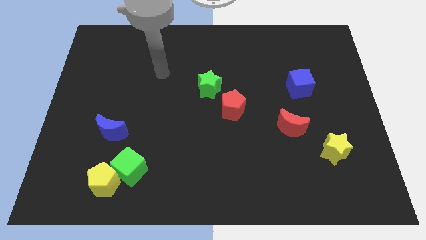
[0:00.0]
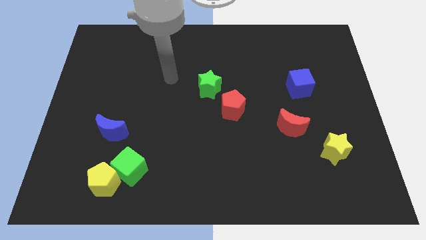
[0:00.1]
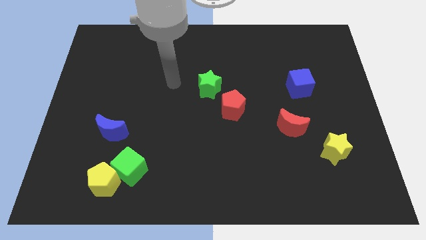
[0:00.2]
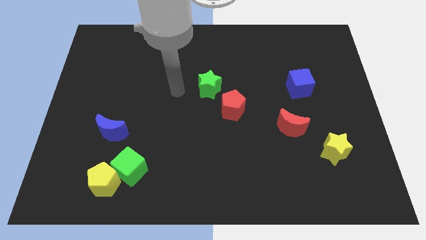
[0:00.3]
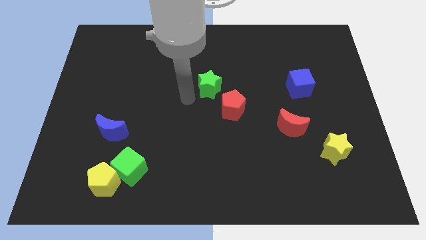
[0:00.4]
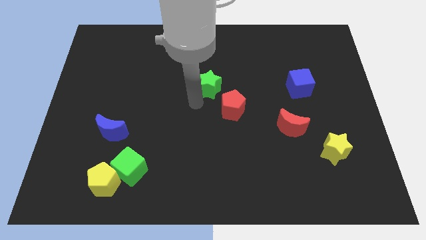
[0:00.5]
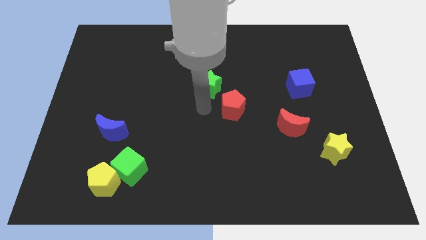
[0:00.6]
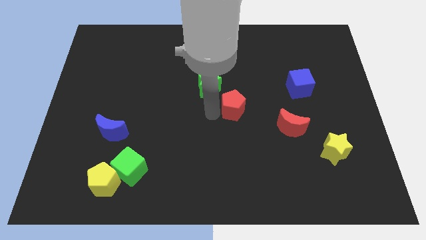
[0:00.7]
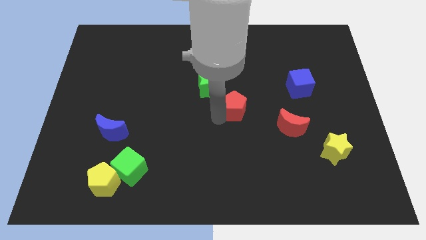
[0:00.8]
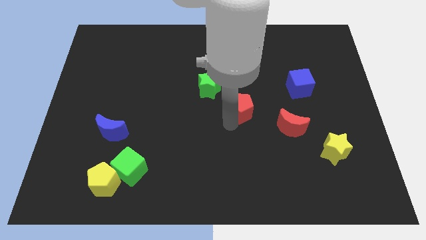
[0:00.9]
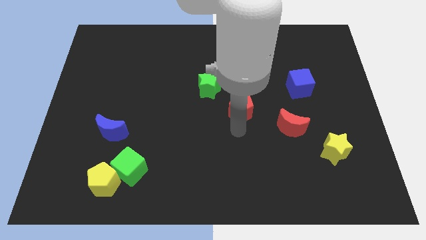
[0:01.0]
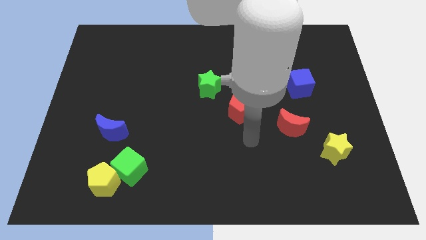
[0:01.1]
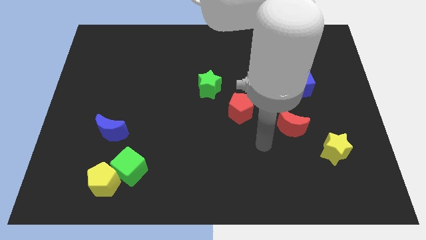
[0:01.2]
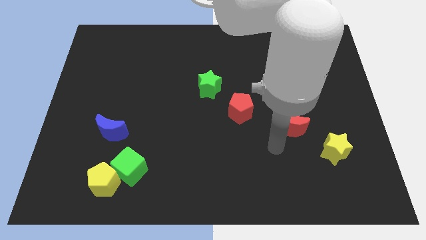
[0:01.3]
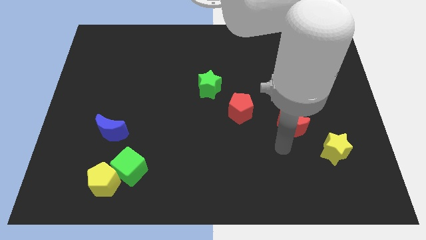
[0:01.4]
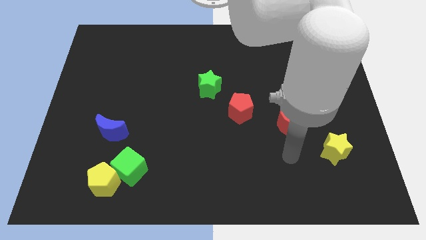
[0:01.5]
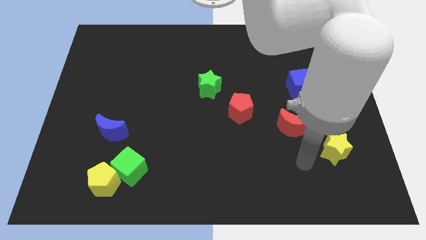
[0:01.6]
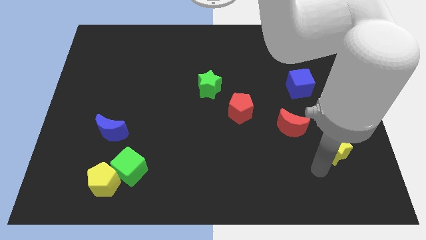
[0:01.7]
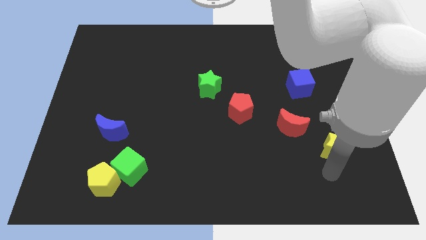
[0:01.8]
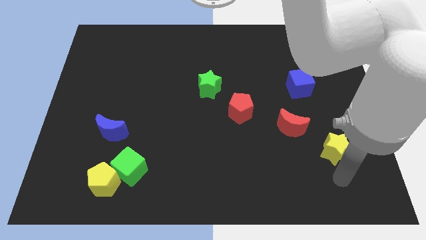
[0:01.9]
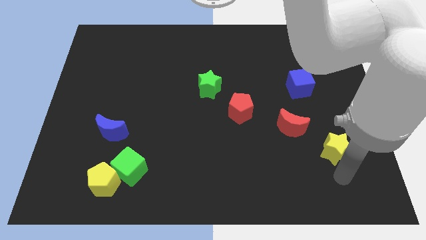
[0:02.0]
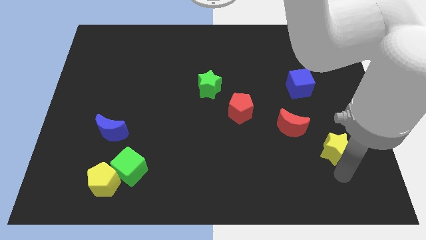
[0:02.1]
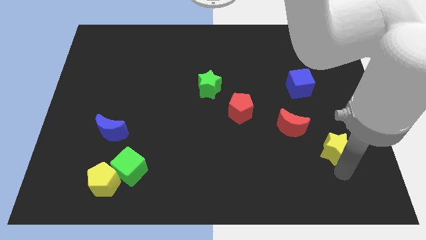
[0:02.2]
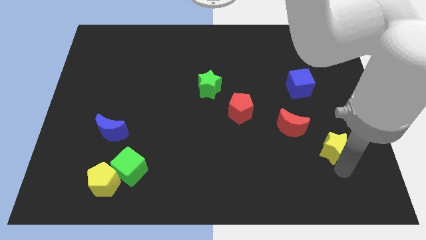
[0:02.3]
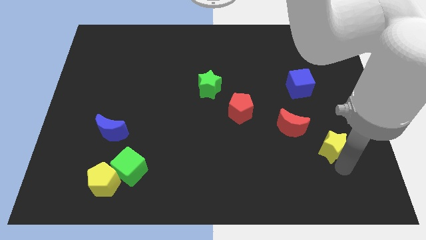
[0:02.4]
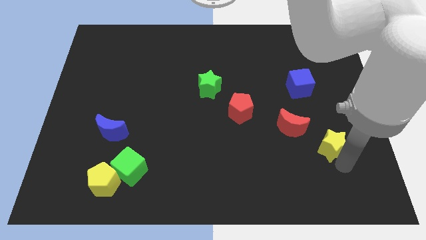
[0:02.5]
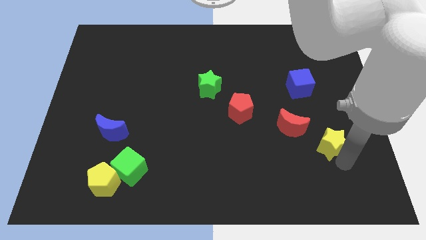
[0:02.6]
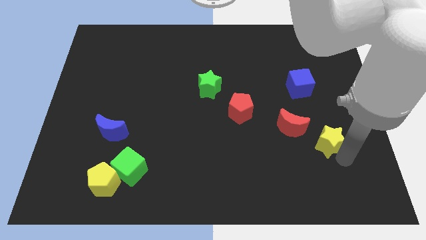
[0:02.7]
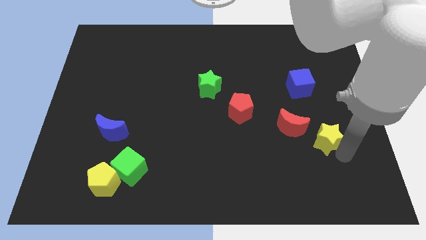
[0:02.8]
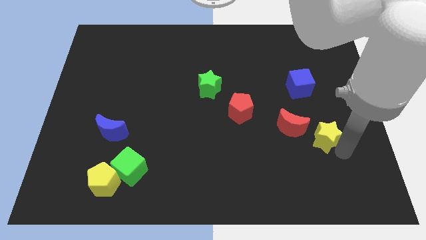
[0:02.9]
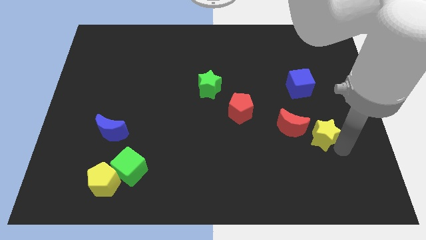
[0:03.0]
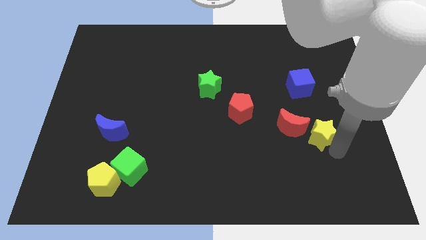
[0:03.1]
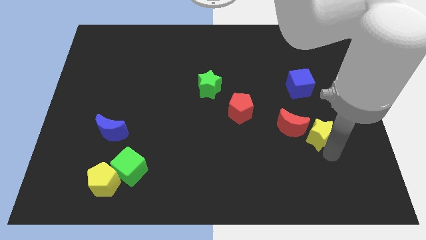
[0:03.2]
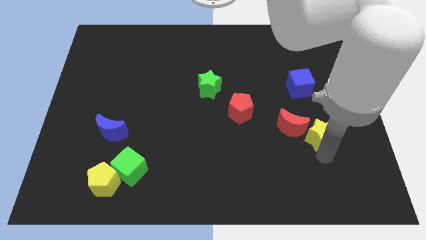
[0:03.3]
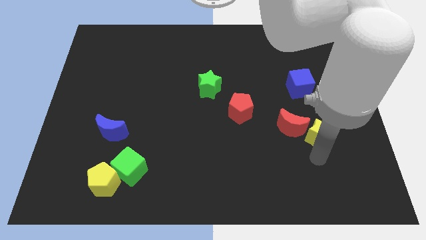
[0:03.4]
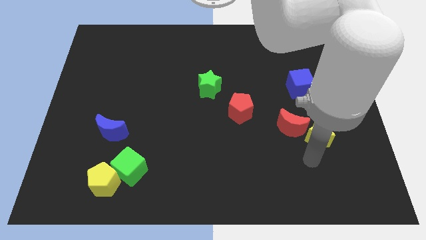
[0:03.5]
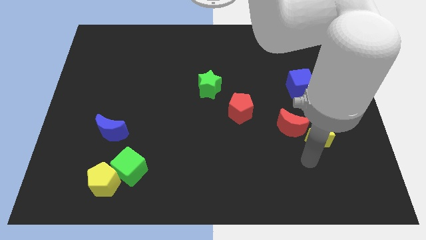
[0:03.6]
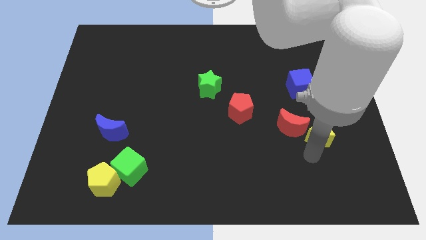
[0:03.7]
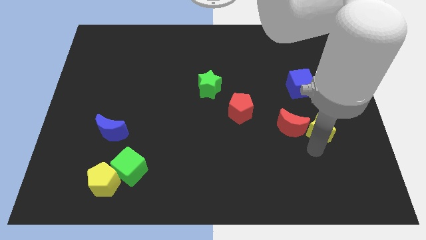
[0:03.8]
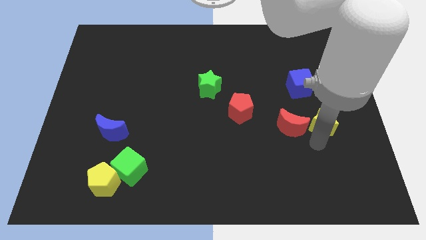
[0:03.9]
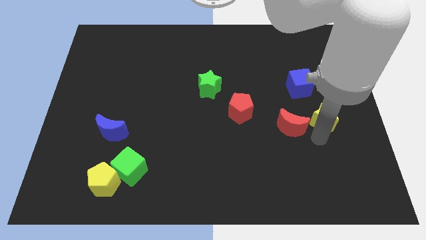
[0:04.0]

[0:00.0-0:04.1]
slide the yellow star a bit up

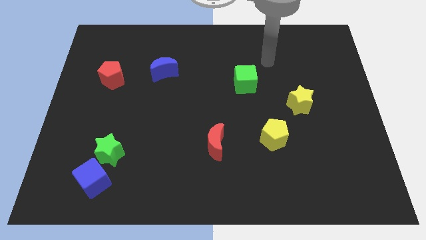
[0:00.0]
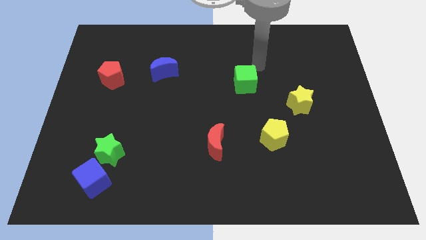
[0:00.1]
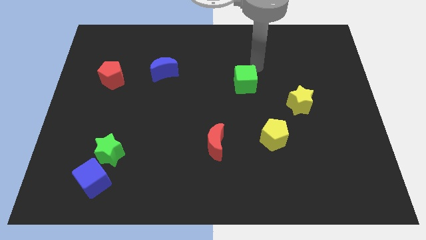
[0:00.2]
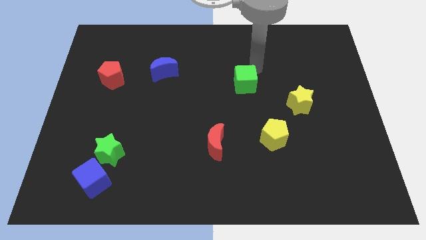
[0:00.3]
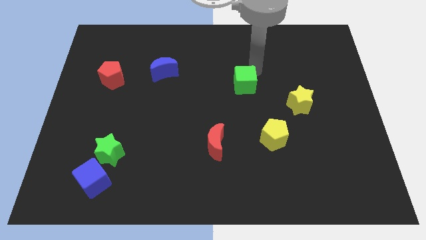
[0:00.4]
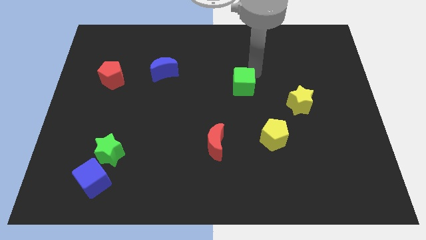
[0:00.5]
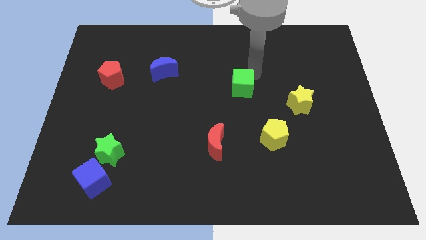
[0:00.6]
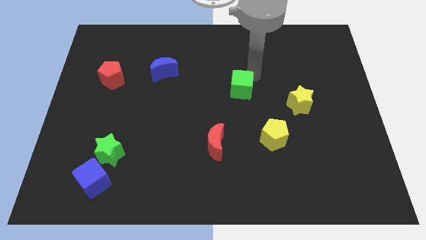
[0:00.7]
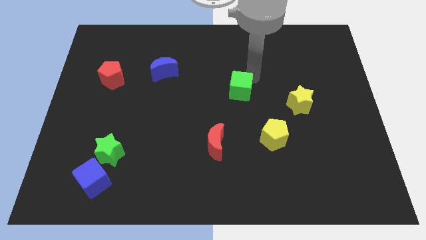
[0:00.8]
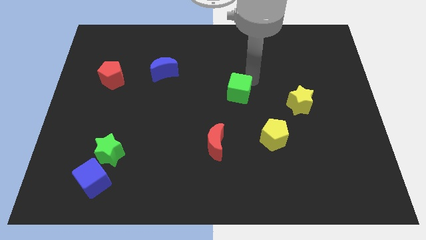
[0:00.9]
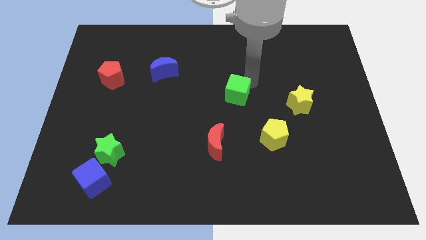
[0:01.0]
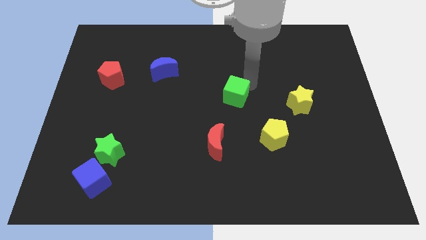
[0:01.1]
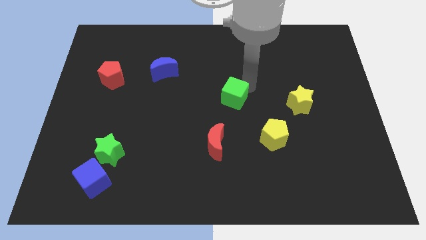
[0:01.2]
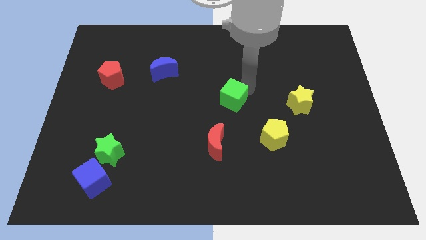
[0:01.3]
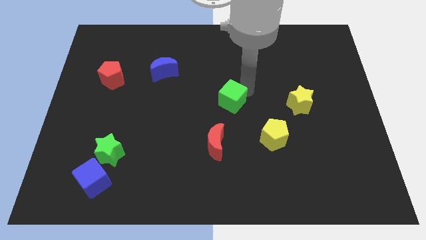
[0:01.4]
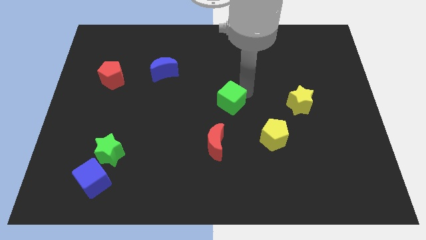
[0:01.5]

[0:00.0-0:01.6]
slightly slide the green cube downwards and left

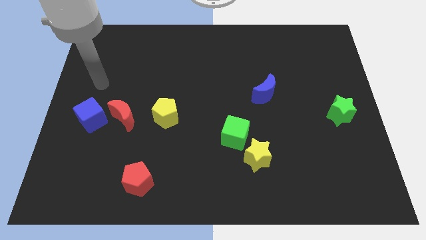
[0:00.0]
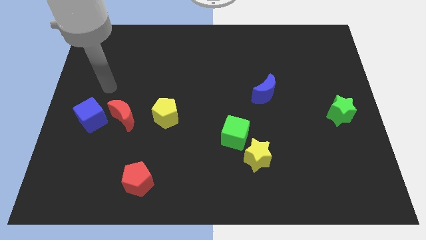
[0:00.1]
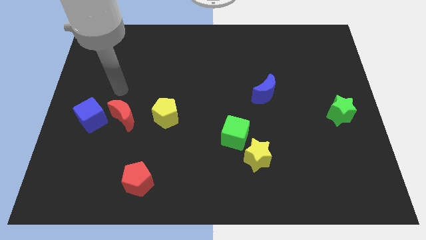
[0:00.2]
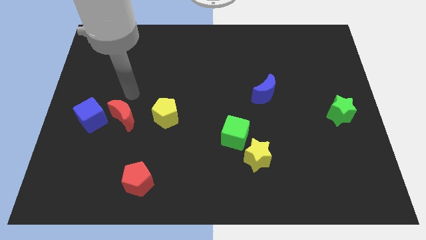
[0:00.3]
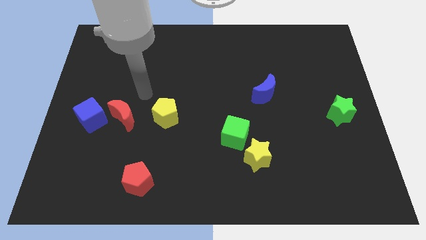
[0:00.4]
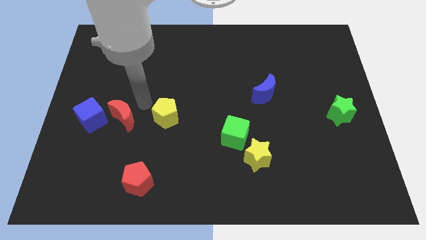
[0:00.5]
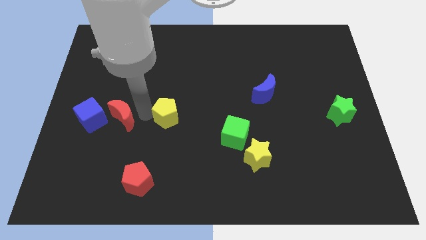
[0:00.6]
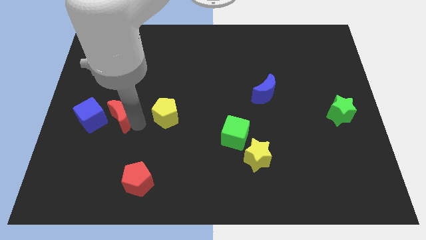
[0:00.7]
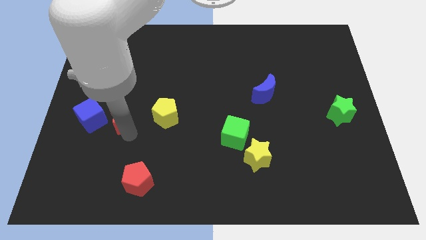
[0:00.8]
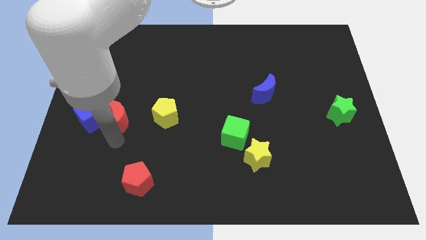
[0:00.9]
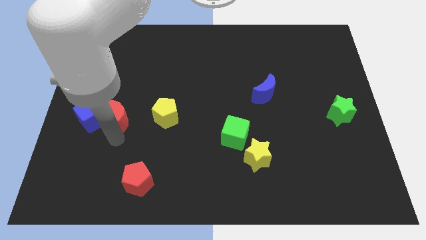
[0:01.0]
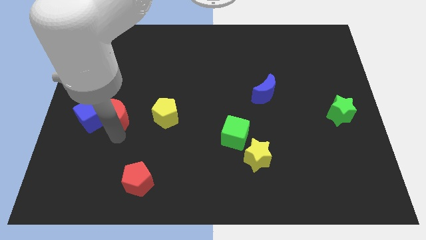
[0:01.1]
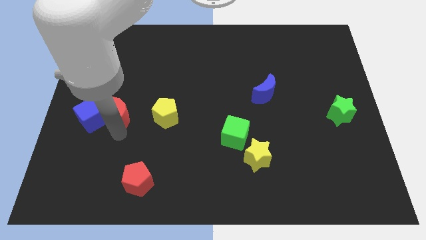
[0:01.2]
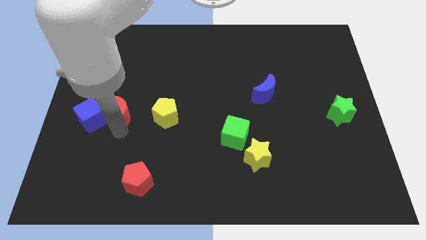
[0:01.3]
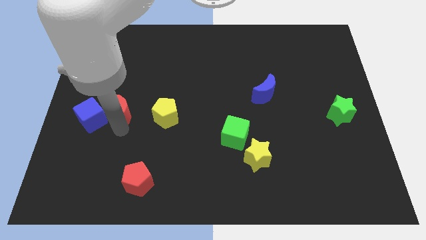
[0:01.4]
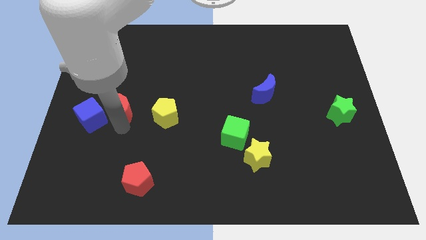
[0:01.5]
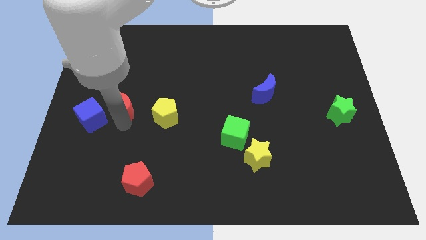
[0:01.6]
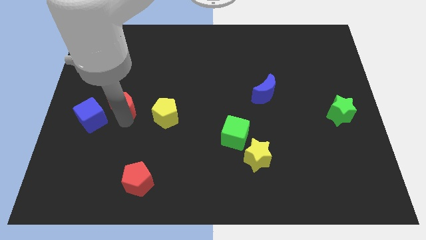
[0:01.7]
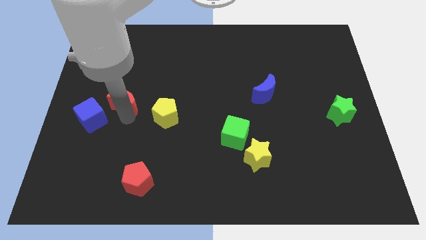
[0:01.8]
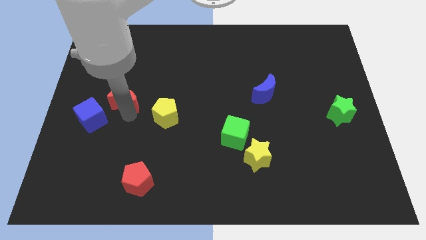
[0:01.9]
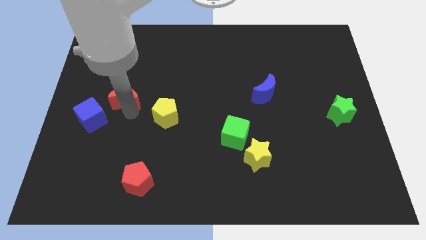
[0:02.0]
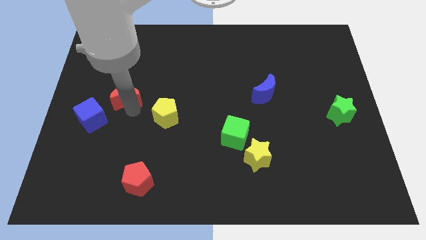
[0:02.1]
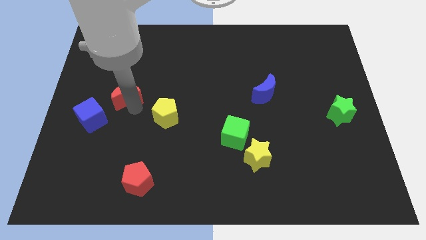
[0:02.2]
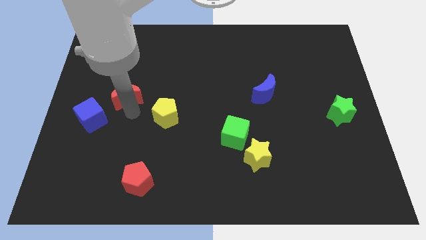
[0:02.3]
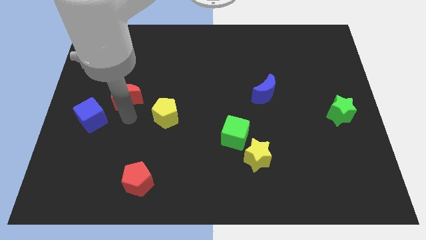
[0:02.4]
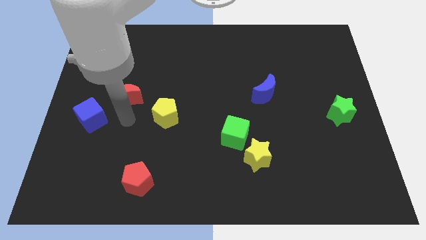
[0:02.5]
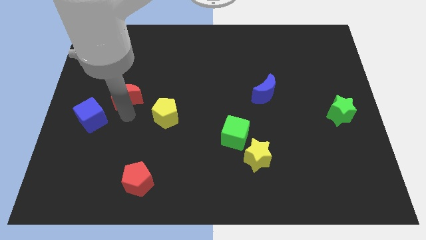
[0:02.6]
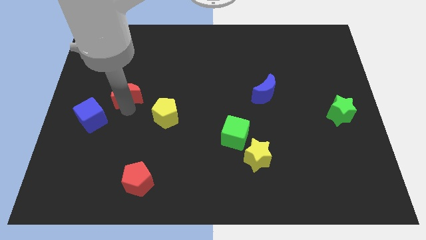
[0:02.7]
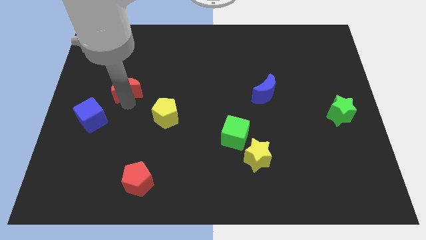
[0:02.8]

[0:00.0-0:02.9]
slide the red moon a bit up
